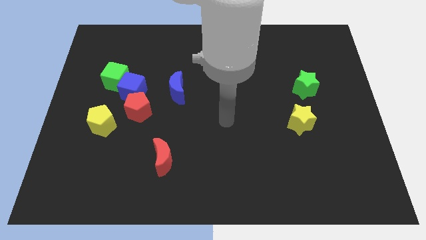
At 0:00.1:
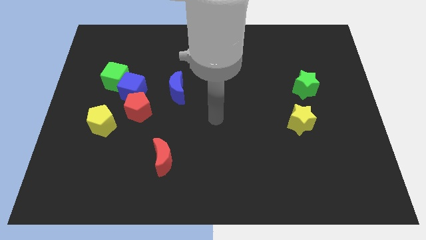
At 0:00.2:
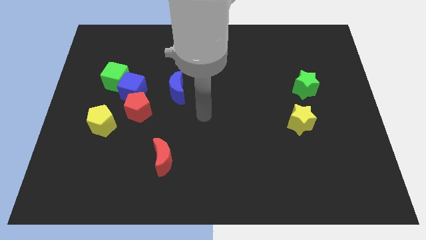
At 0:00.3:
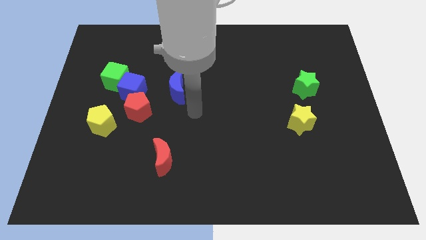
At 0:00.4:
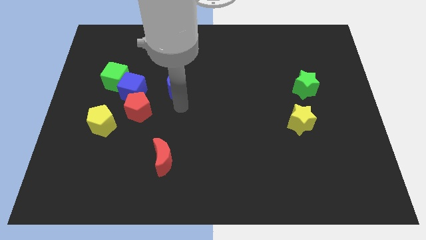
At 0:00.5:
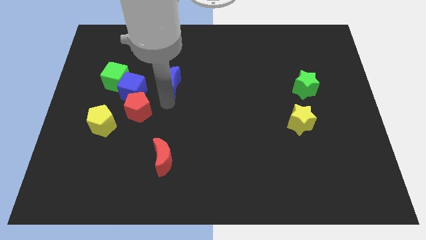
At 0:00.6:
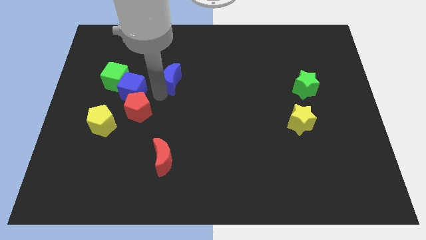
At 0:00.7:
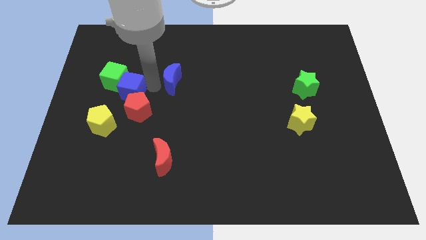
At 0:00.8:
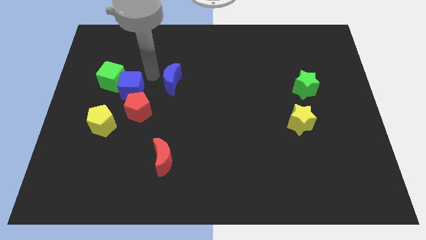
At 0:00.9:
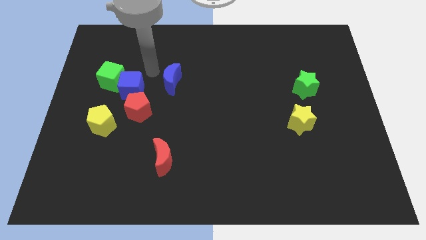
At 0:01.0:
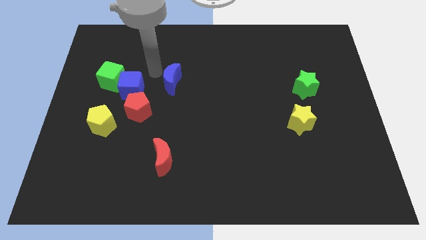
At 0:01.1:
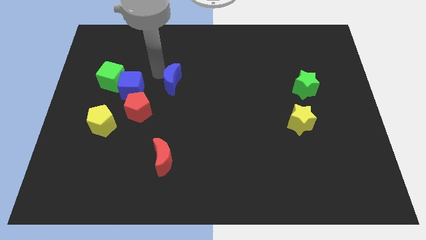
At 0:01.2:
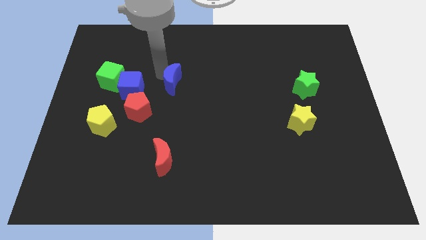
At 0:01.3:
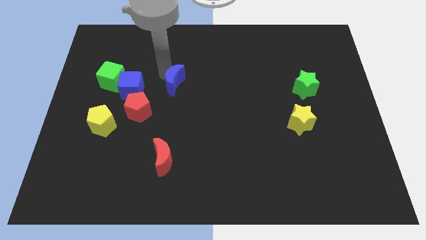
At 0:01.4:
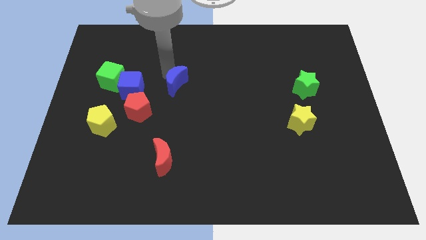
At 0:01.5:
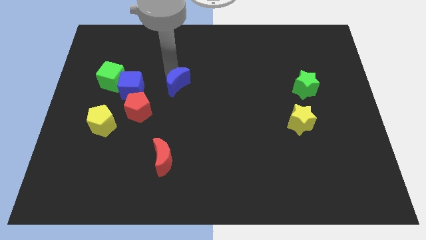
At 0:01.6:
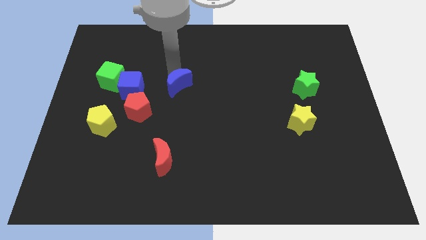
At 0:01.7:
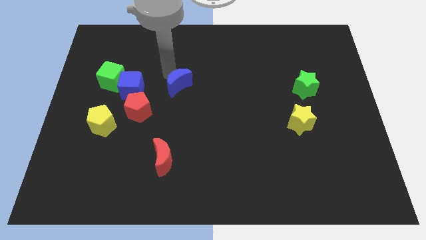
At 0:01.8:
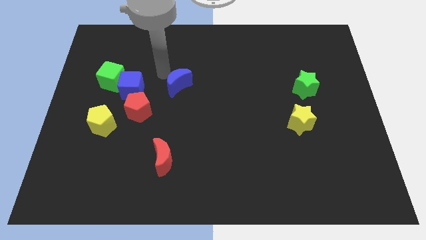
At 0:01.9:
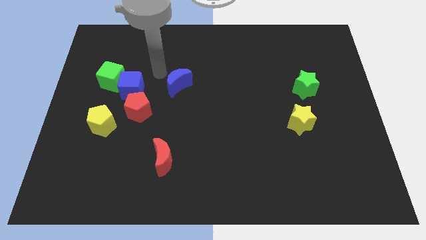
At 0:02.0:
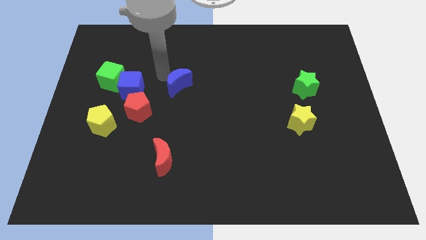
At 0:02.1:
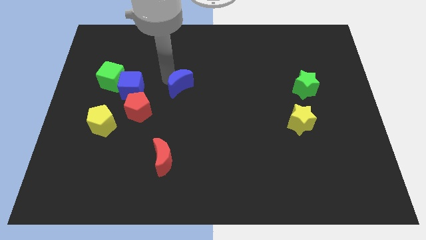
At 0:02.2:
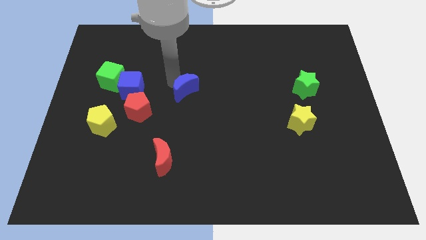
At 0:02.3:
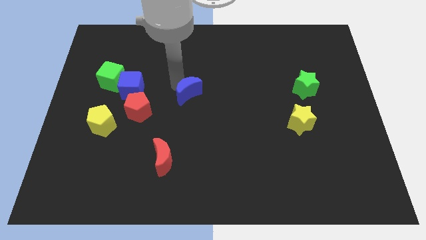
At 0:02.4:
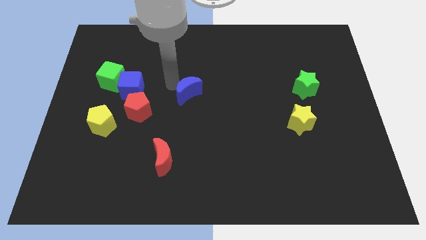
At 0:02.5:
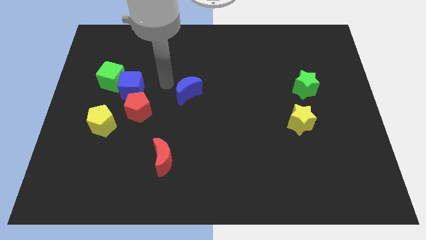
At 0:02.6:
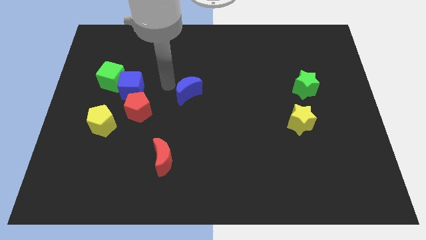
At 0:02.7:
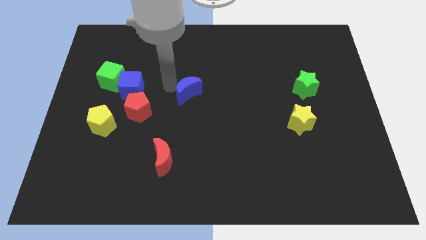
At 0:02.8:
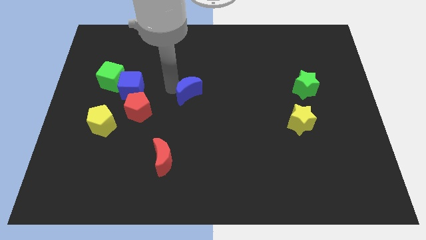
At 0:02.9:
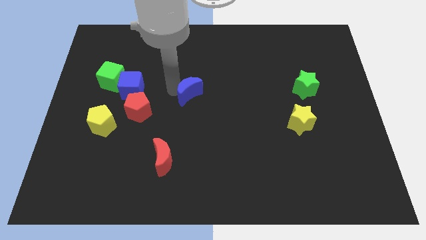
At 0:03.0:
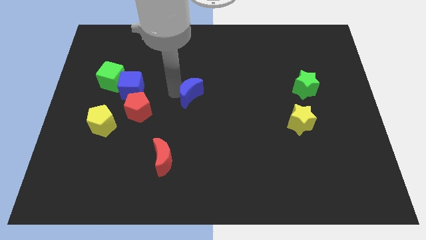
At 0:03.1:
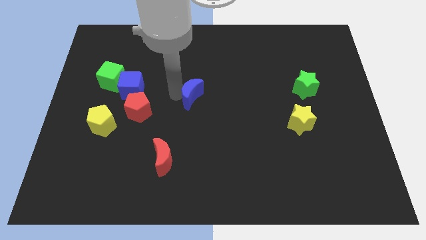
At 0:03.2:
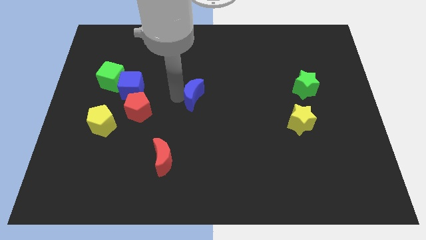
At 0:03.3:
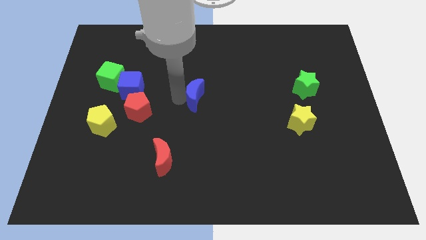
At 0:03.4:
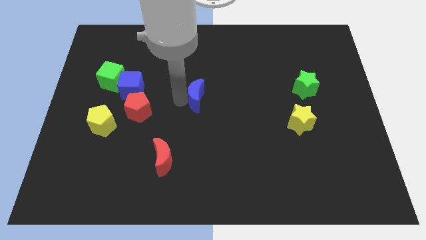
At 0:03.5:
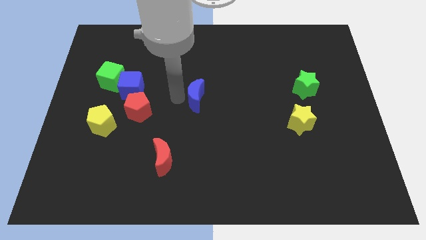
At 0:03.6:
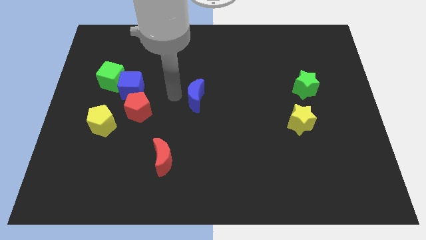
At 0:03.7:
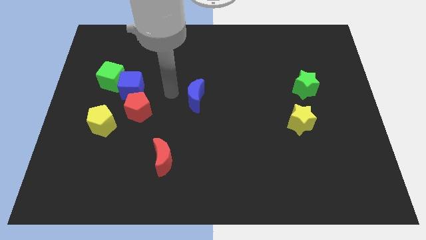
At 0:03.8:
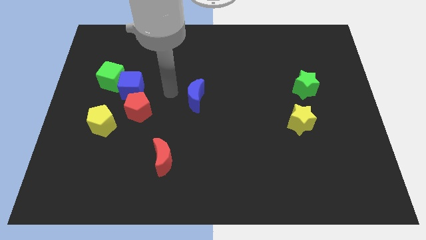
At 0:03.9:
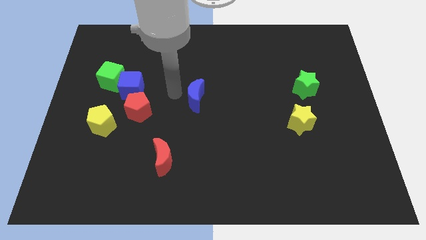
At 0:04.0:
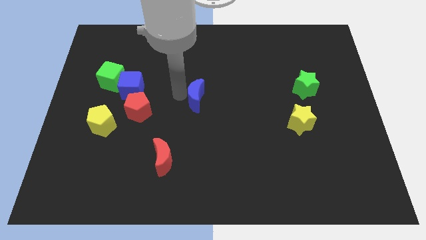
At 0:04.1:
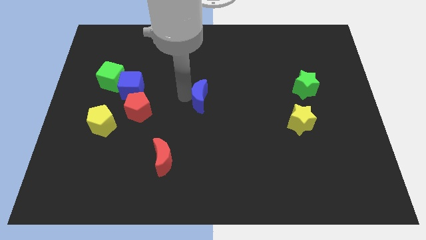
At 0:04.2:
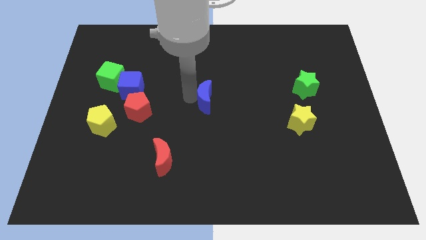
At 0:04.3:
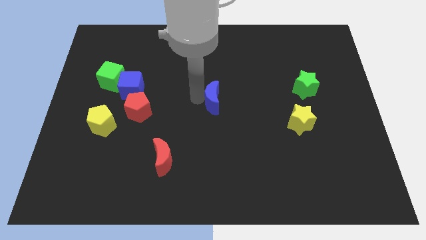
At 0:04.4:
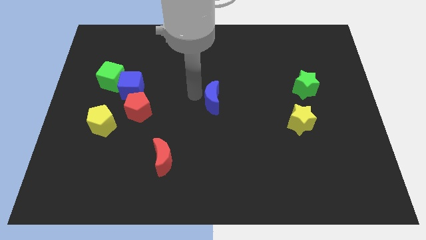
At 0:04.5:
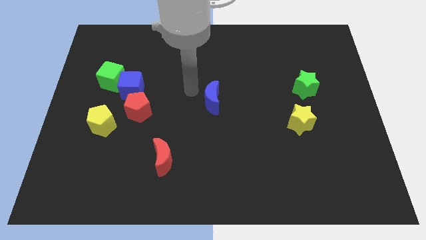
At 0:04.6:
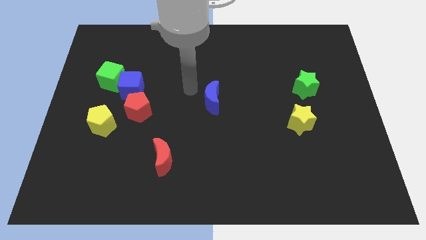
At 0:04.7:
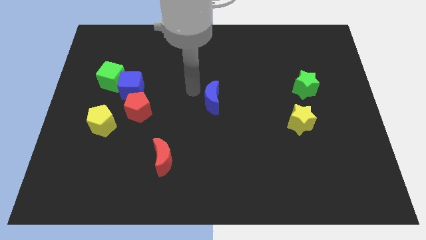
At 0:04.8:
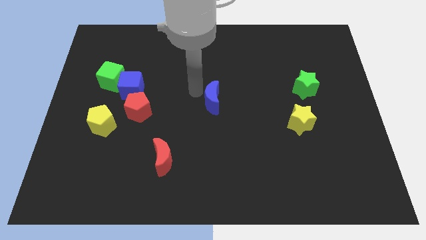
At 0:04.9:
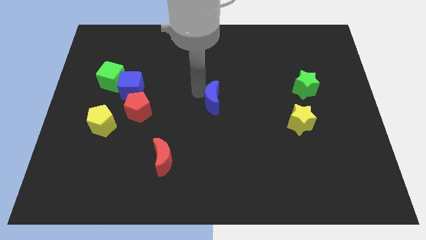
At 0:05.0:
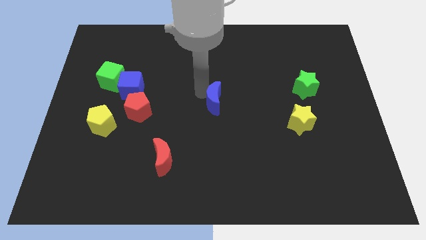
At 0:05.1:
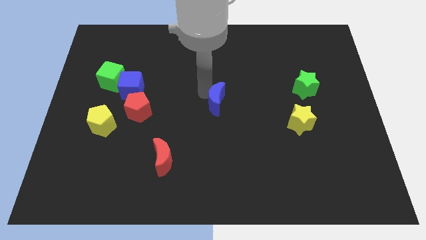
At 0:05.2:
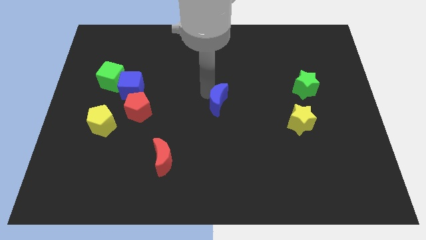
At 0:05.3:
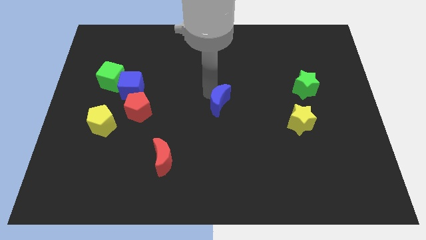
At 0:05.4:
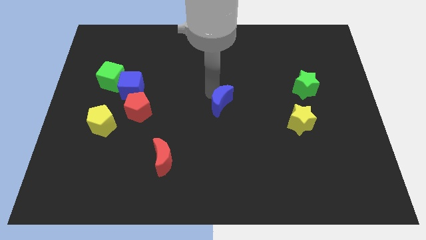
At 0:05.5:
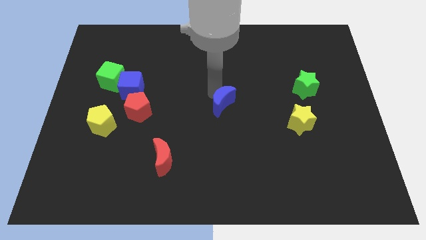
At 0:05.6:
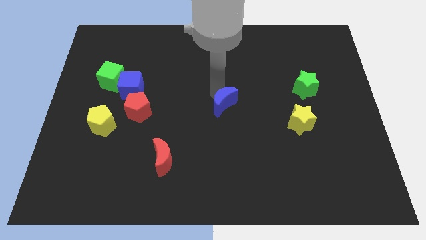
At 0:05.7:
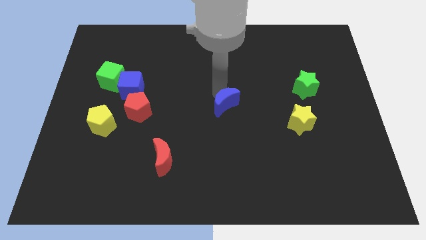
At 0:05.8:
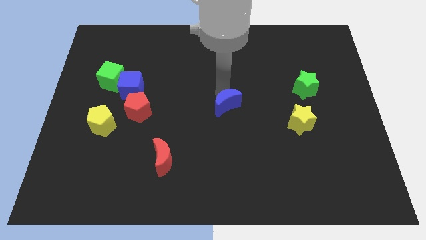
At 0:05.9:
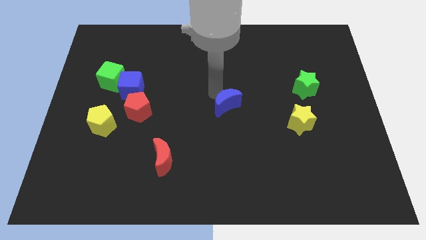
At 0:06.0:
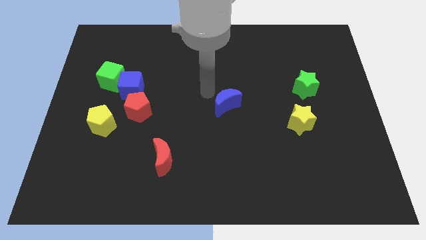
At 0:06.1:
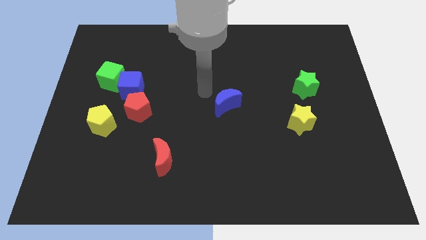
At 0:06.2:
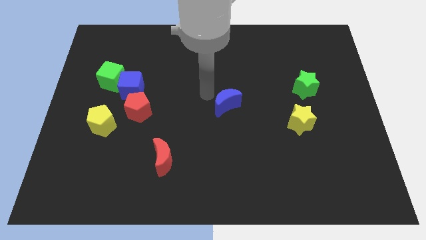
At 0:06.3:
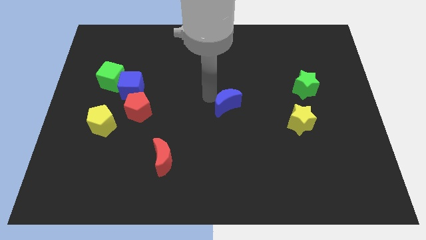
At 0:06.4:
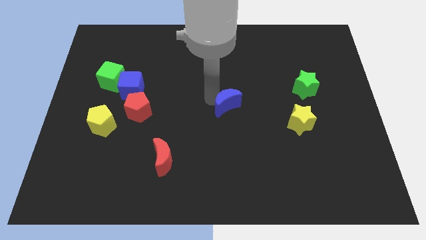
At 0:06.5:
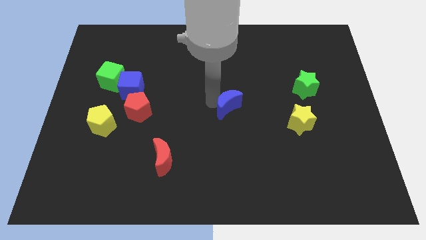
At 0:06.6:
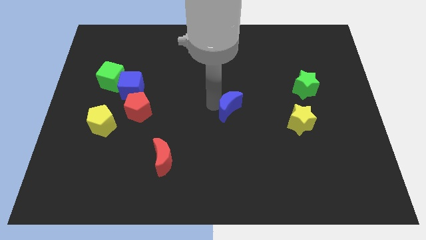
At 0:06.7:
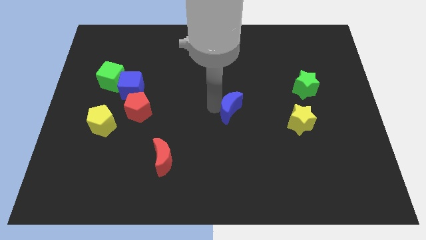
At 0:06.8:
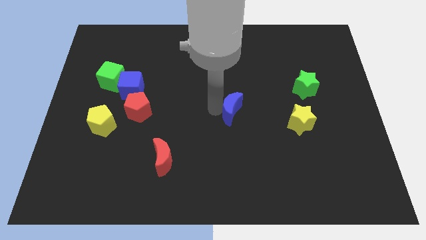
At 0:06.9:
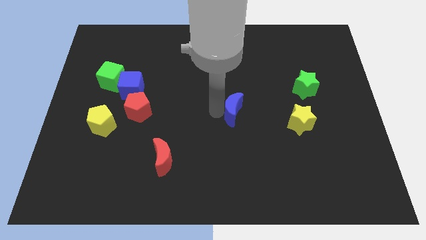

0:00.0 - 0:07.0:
put the blue moon to the left of the yellow star
